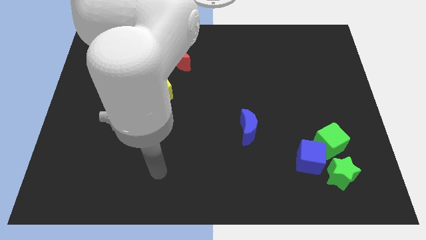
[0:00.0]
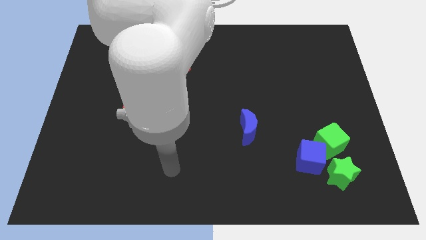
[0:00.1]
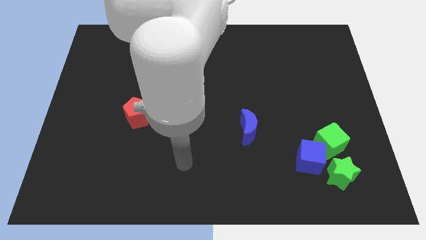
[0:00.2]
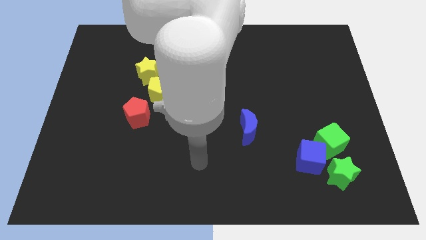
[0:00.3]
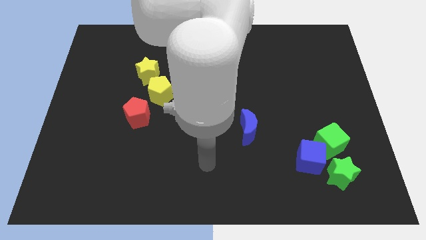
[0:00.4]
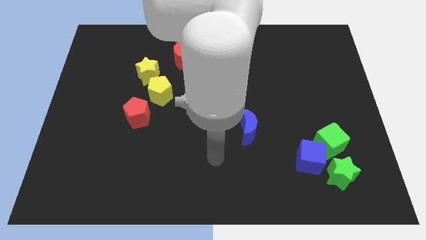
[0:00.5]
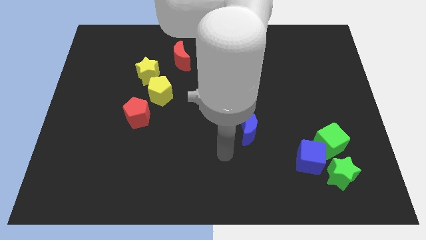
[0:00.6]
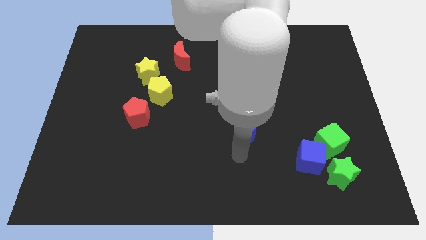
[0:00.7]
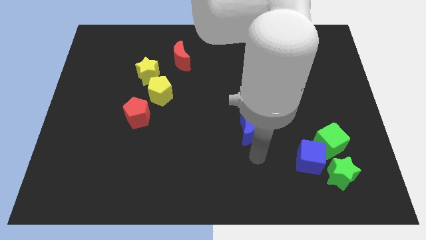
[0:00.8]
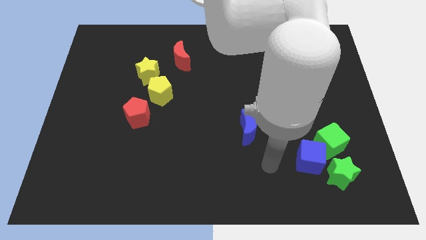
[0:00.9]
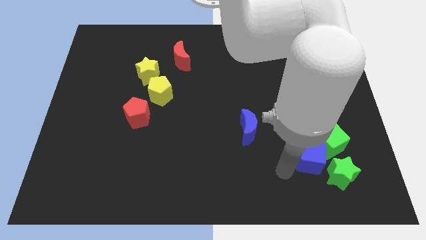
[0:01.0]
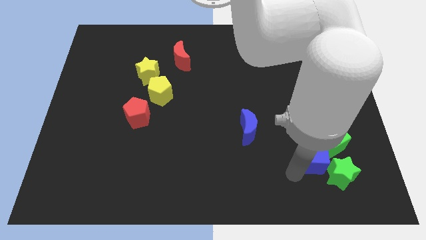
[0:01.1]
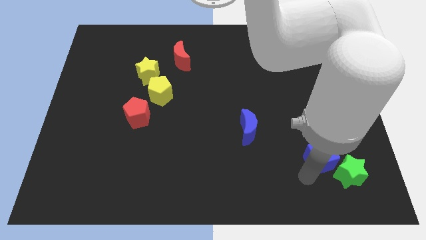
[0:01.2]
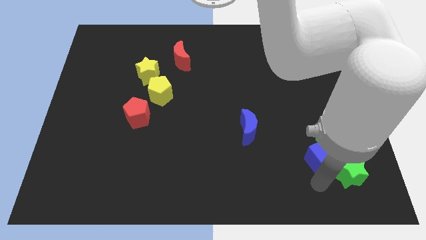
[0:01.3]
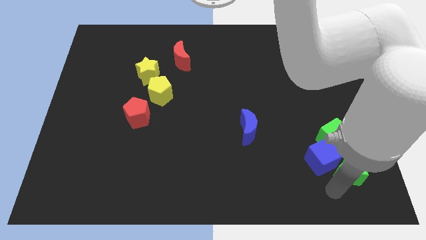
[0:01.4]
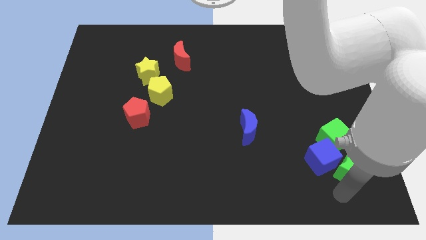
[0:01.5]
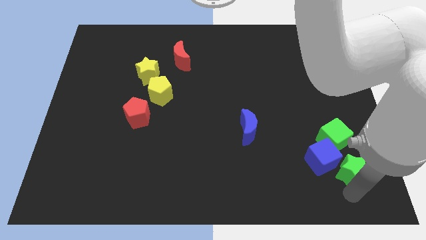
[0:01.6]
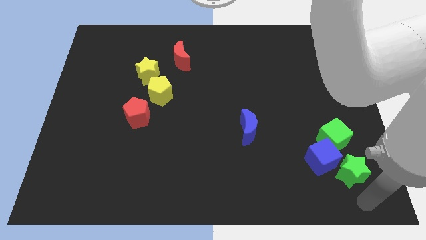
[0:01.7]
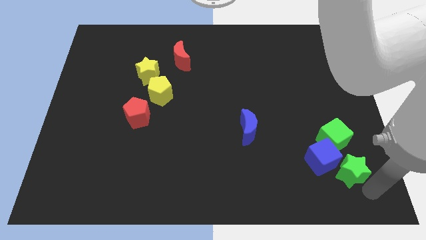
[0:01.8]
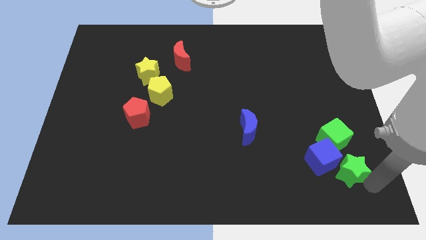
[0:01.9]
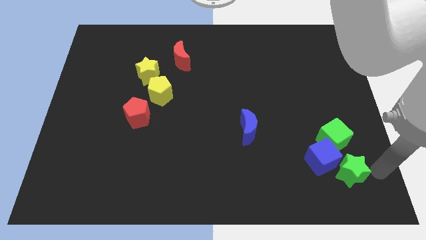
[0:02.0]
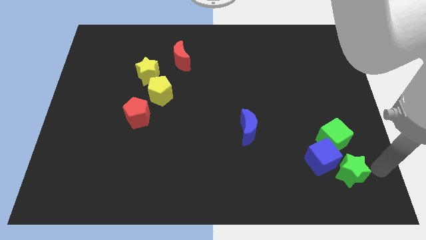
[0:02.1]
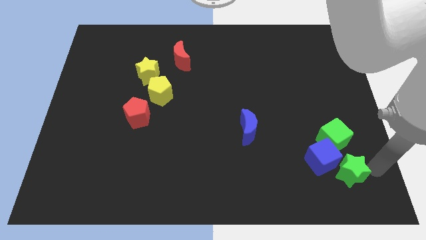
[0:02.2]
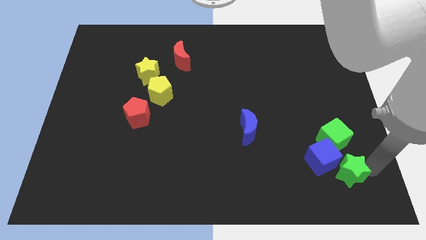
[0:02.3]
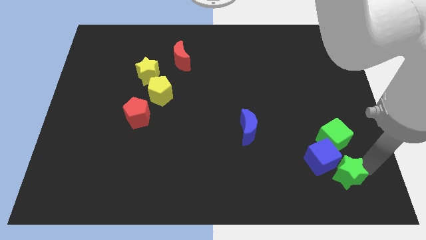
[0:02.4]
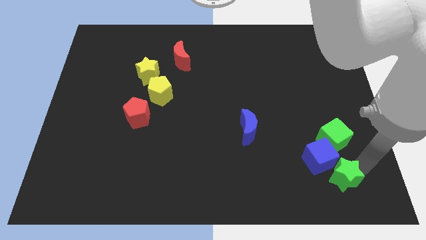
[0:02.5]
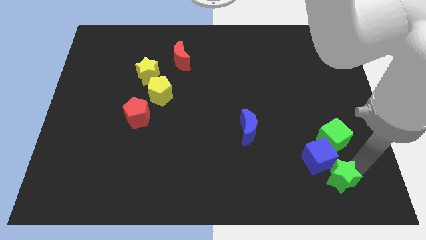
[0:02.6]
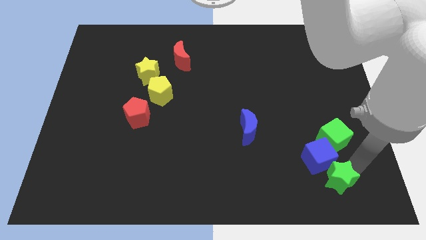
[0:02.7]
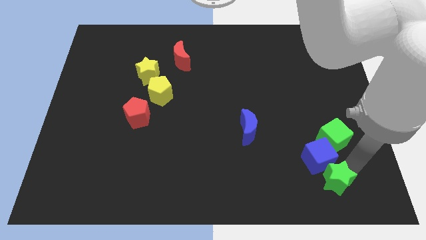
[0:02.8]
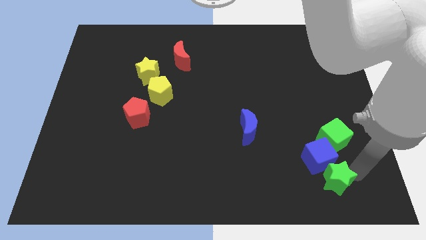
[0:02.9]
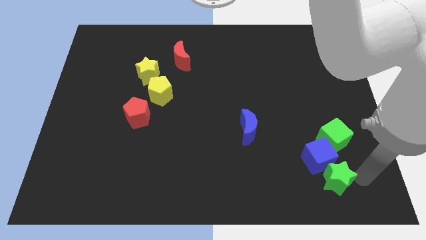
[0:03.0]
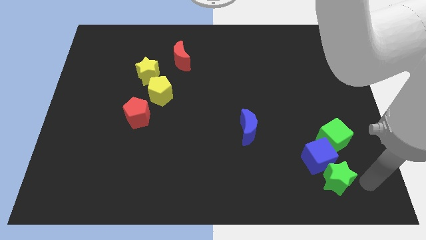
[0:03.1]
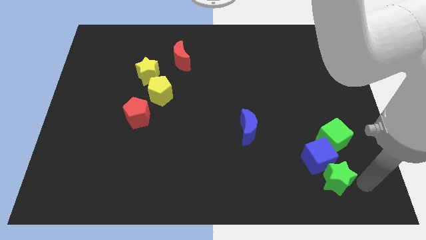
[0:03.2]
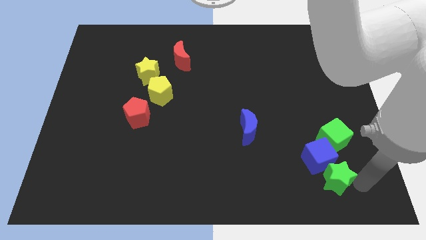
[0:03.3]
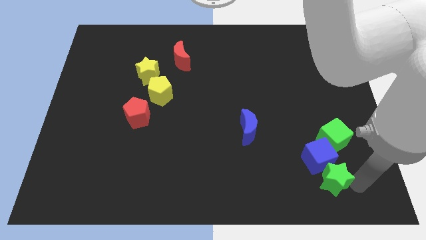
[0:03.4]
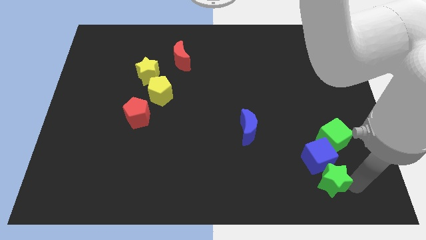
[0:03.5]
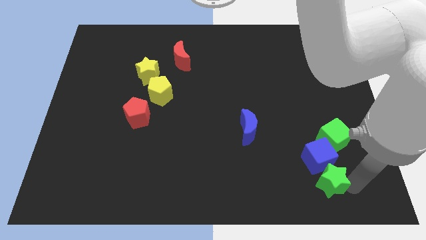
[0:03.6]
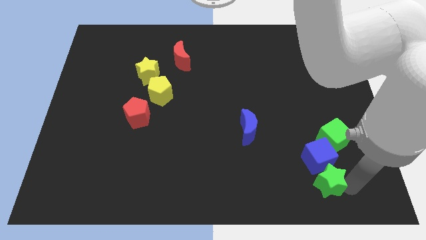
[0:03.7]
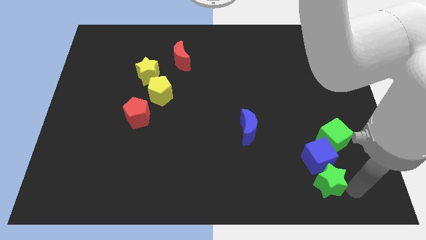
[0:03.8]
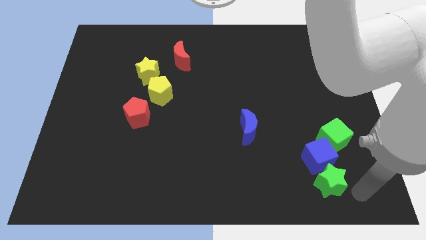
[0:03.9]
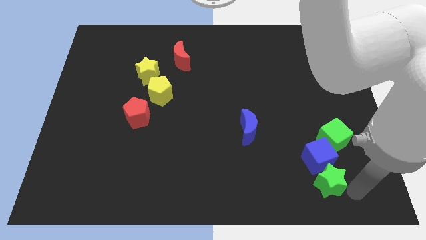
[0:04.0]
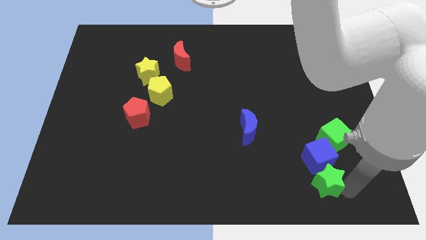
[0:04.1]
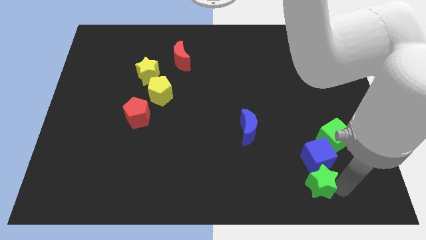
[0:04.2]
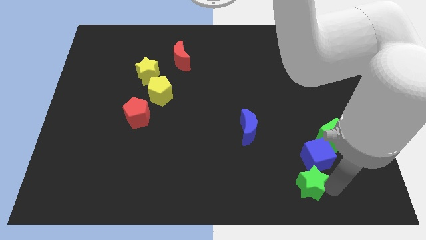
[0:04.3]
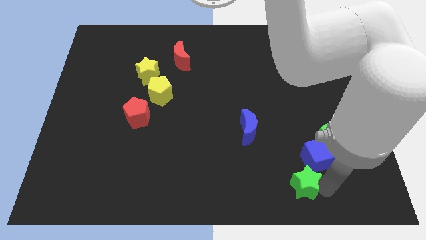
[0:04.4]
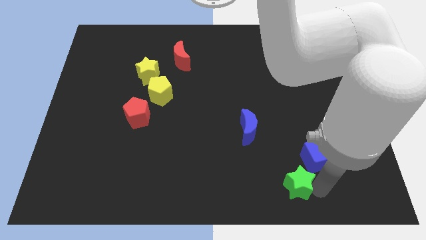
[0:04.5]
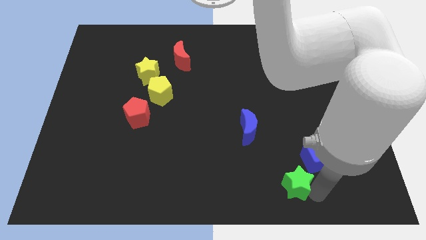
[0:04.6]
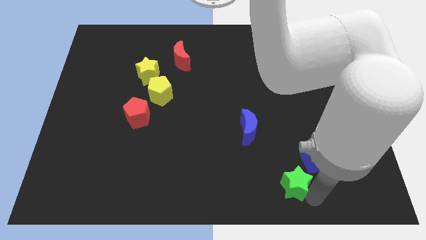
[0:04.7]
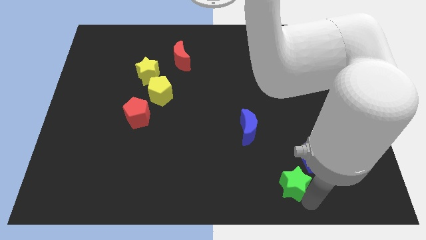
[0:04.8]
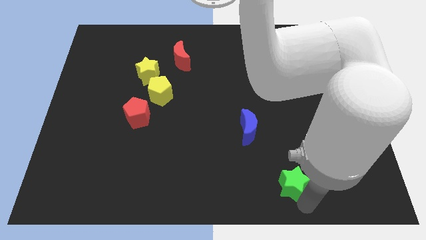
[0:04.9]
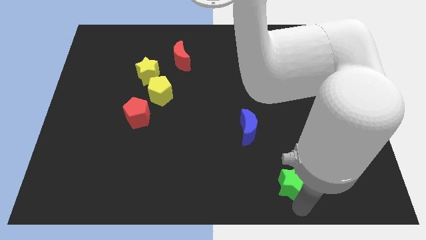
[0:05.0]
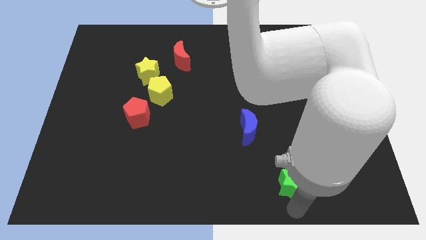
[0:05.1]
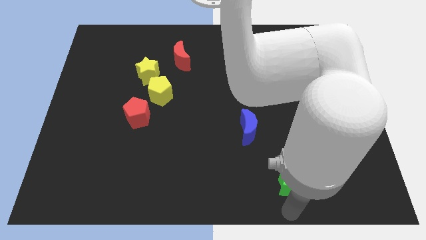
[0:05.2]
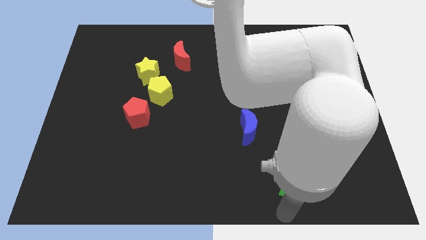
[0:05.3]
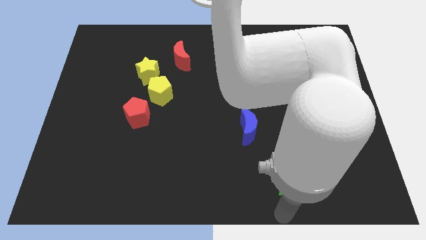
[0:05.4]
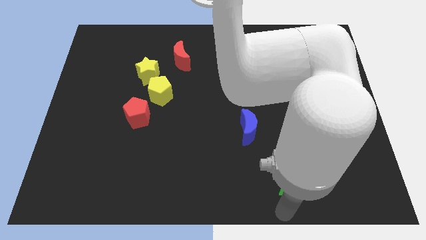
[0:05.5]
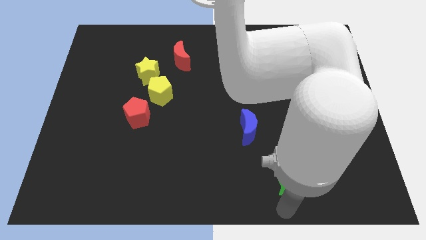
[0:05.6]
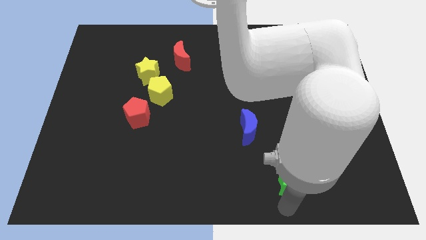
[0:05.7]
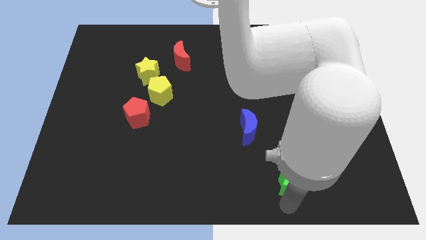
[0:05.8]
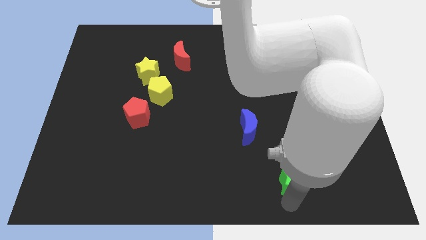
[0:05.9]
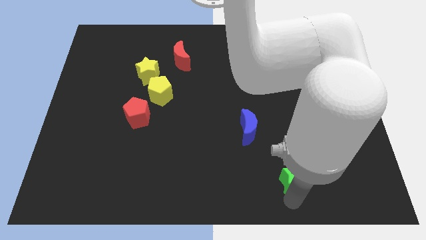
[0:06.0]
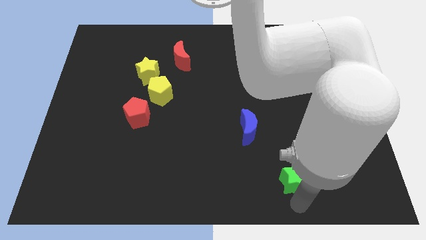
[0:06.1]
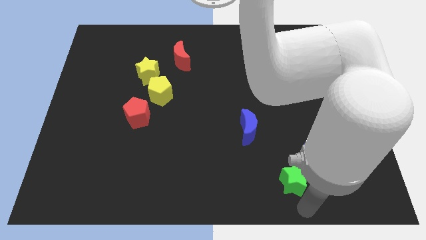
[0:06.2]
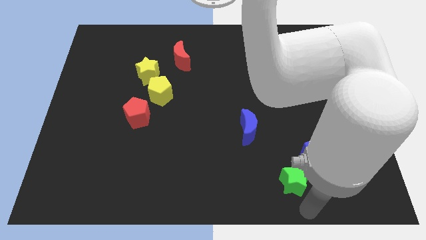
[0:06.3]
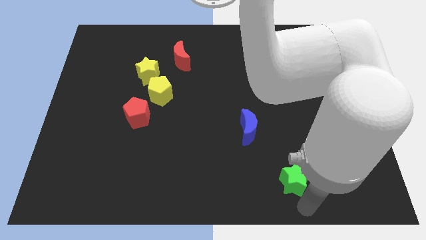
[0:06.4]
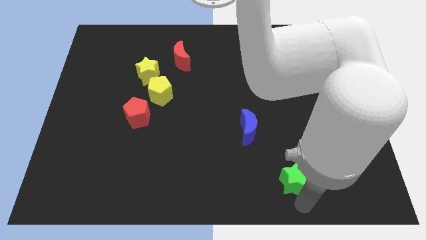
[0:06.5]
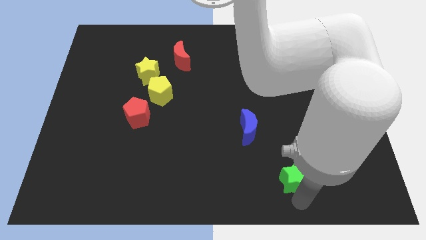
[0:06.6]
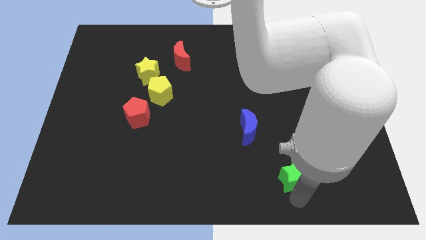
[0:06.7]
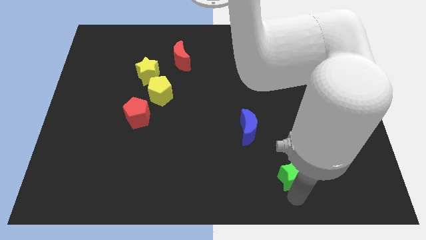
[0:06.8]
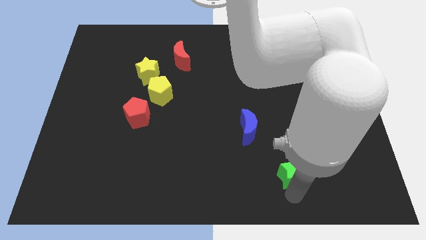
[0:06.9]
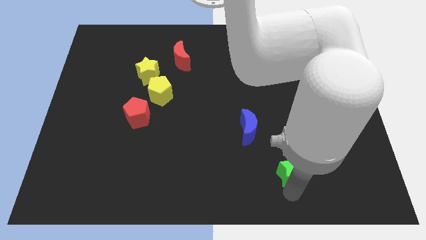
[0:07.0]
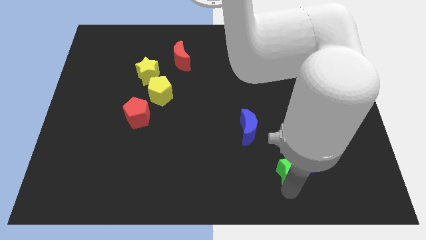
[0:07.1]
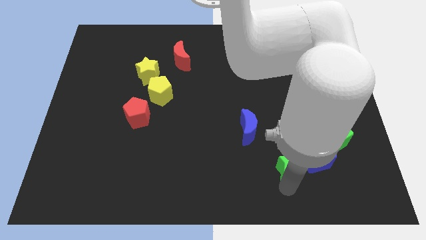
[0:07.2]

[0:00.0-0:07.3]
slide the green star a bit upwards and to the left

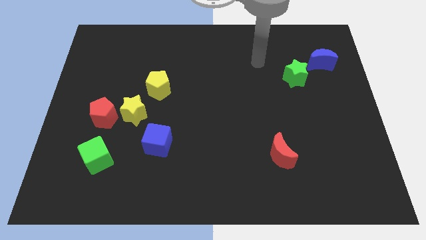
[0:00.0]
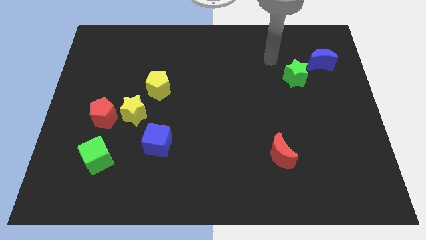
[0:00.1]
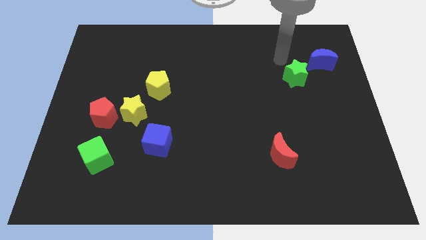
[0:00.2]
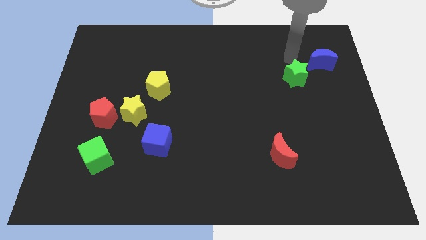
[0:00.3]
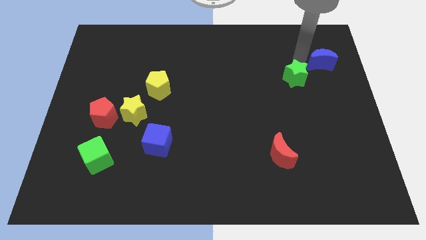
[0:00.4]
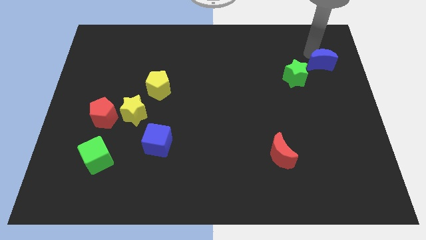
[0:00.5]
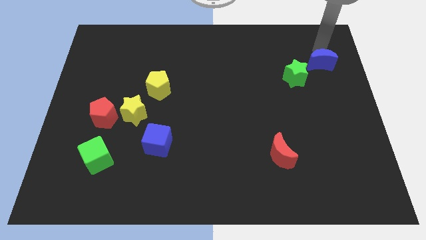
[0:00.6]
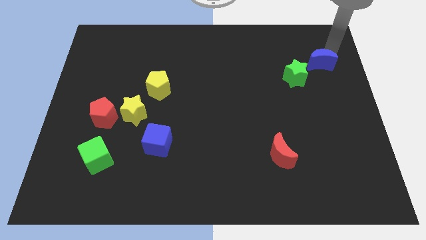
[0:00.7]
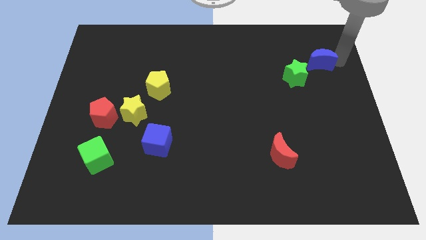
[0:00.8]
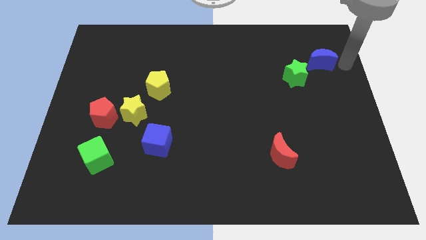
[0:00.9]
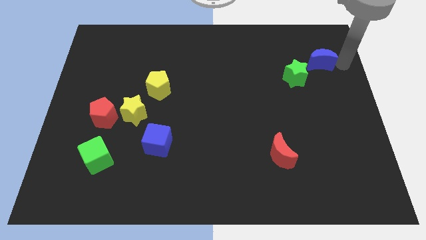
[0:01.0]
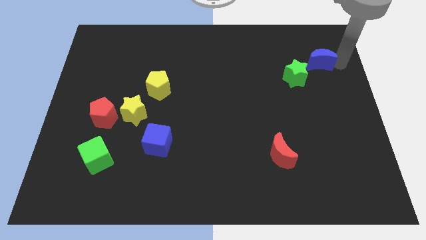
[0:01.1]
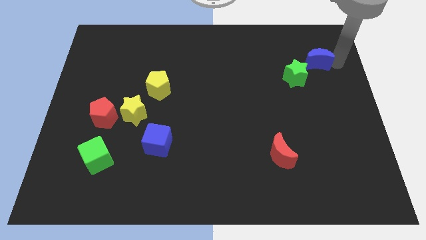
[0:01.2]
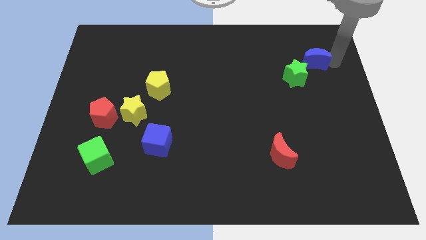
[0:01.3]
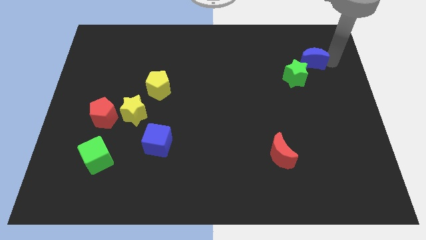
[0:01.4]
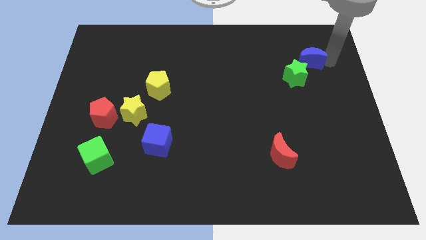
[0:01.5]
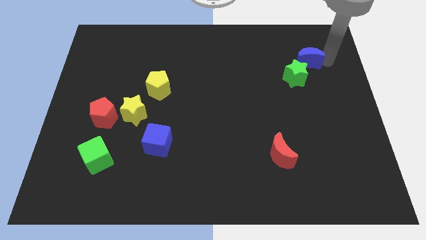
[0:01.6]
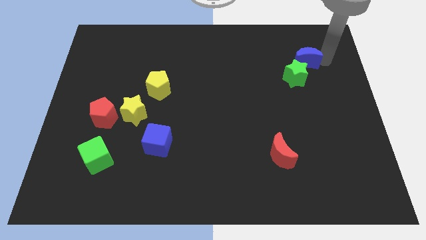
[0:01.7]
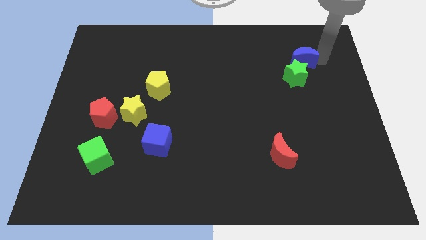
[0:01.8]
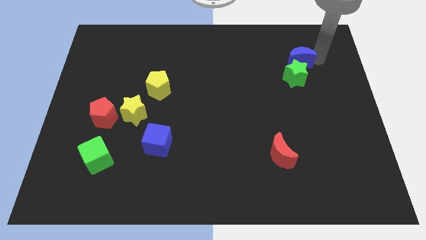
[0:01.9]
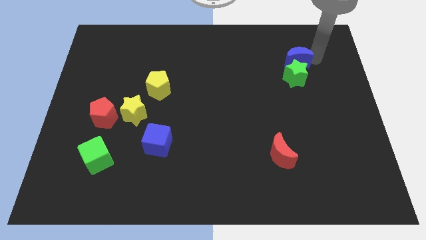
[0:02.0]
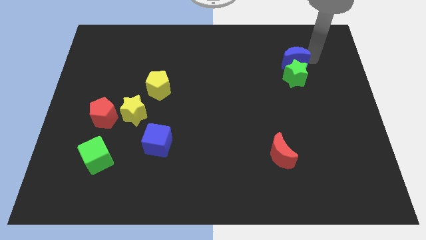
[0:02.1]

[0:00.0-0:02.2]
move the blue moon a bit left
